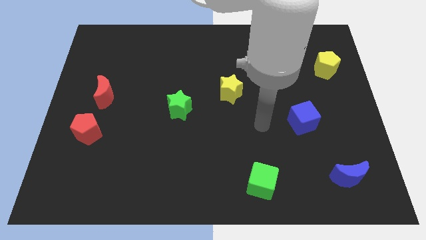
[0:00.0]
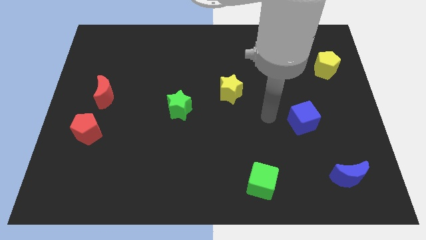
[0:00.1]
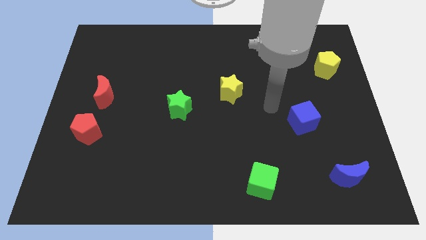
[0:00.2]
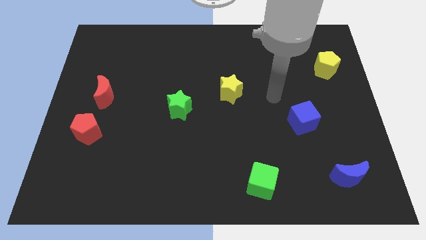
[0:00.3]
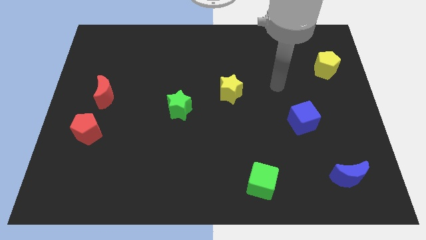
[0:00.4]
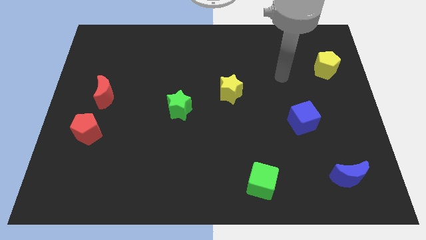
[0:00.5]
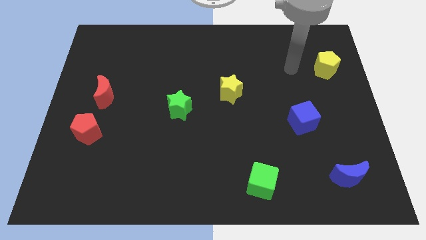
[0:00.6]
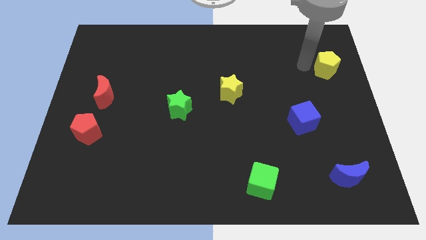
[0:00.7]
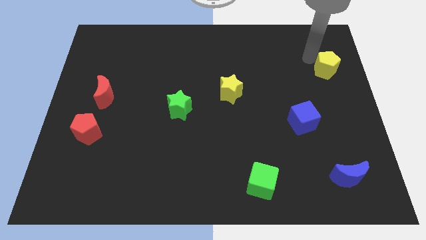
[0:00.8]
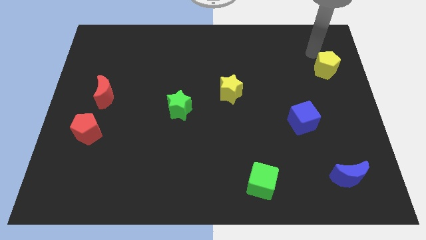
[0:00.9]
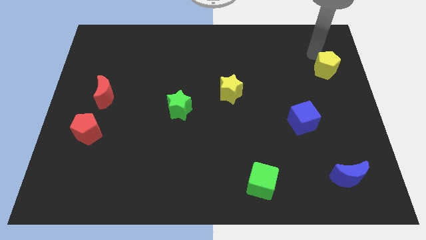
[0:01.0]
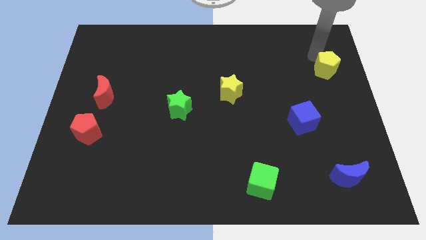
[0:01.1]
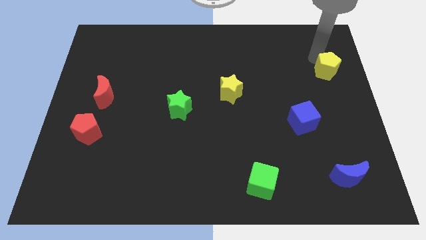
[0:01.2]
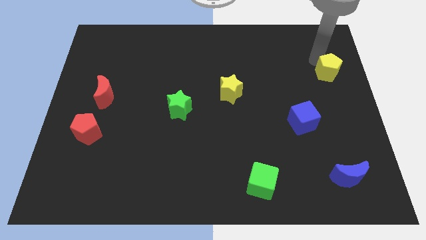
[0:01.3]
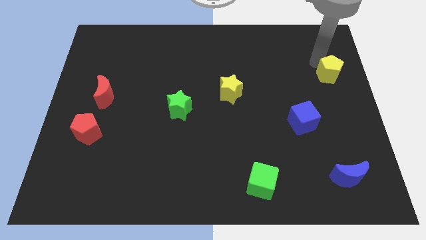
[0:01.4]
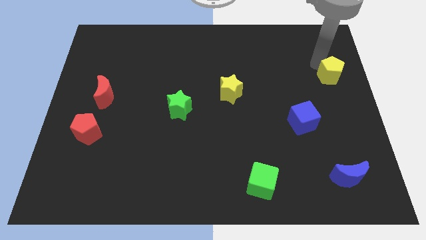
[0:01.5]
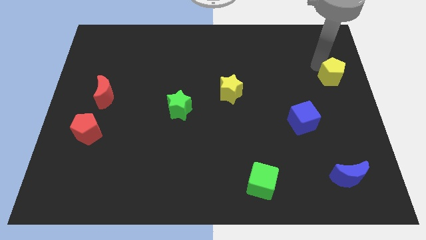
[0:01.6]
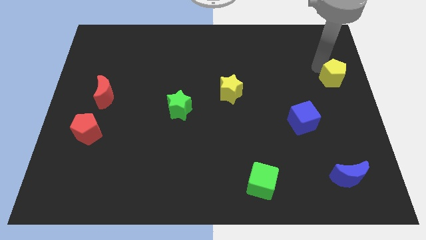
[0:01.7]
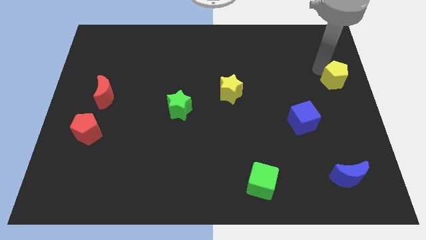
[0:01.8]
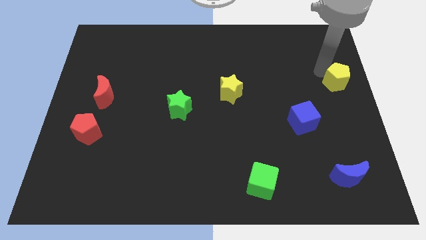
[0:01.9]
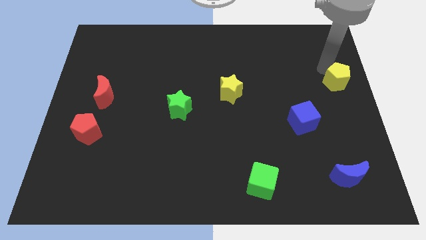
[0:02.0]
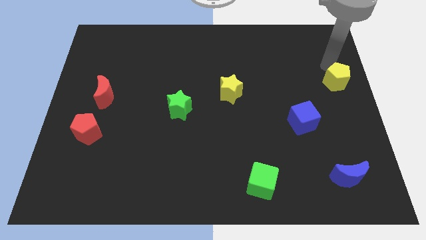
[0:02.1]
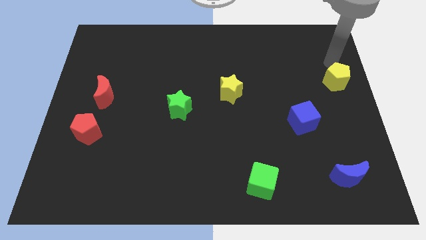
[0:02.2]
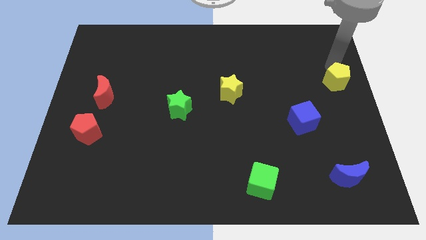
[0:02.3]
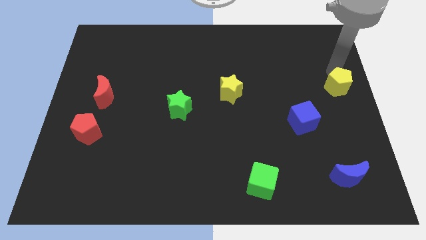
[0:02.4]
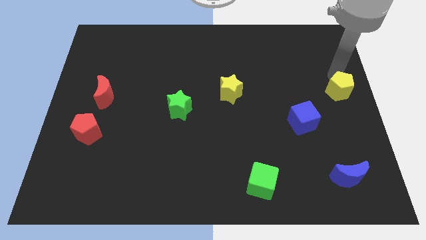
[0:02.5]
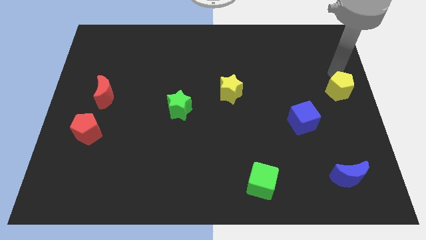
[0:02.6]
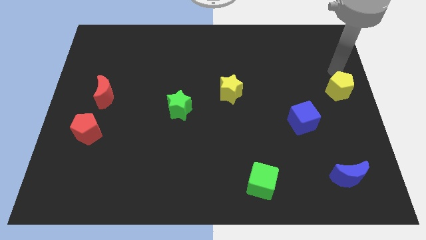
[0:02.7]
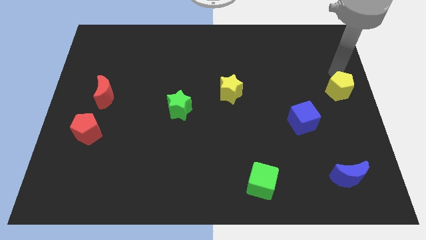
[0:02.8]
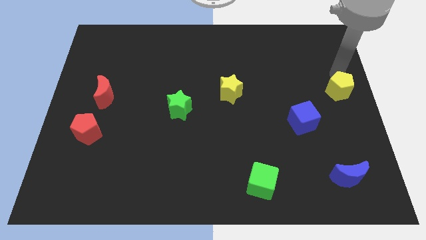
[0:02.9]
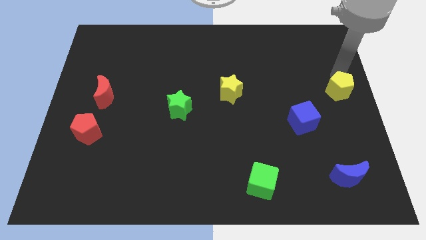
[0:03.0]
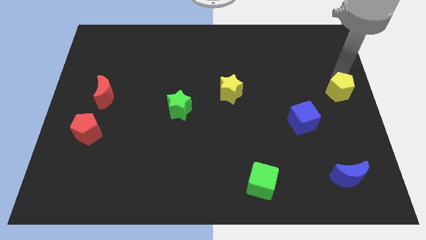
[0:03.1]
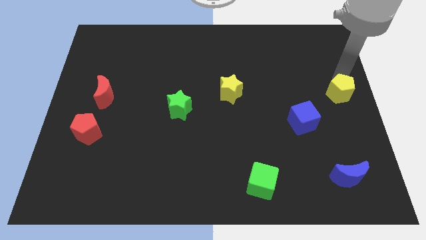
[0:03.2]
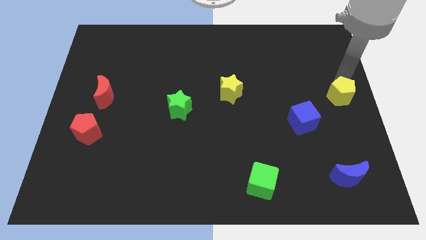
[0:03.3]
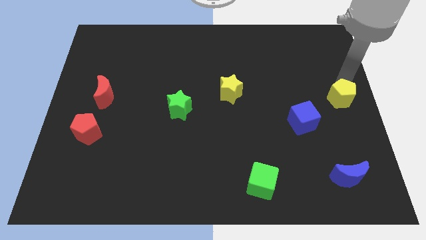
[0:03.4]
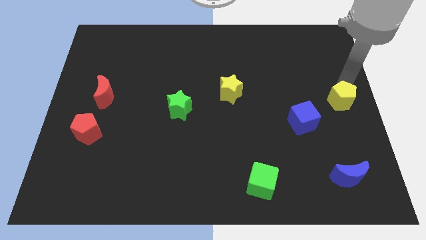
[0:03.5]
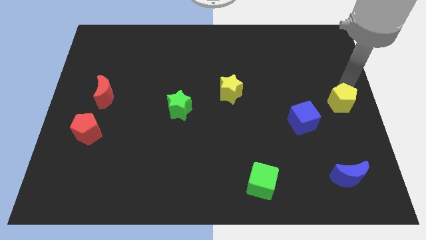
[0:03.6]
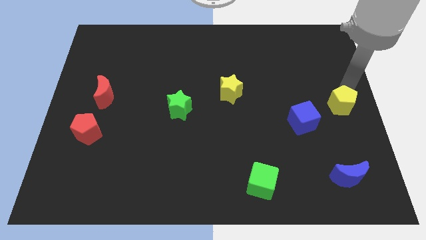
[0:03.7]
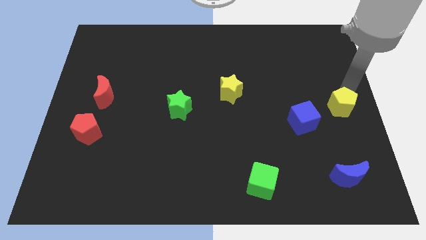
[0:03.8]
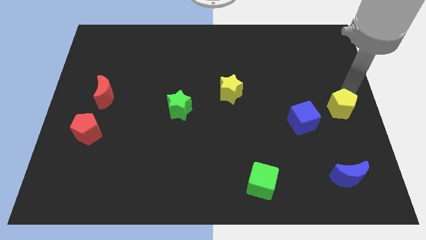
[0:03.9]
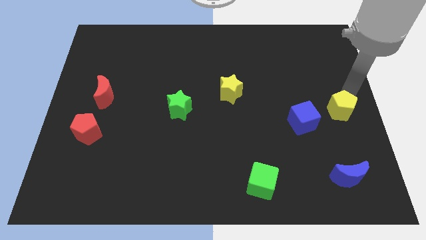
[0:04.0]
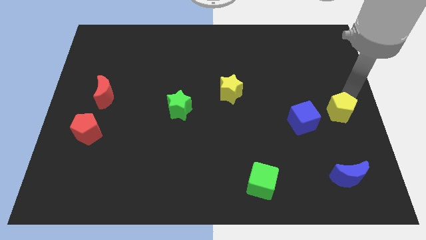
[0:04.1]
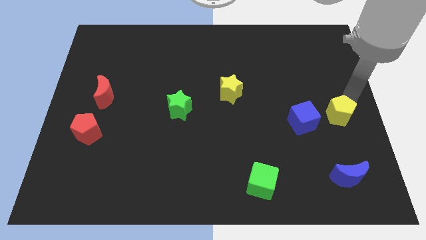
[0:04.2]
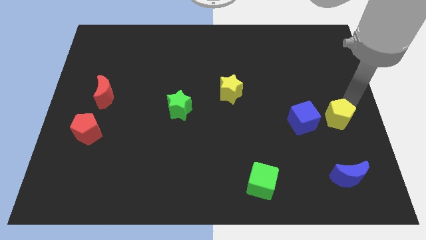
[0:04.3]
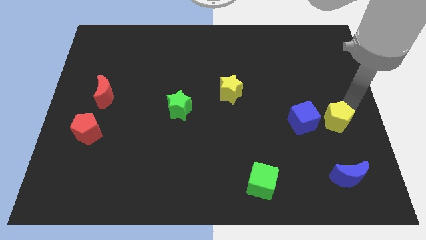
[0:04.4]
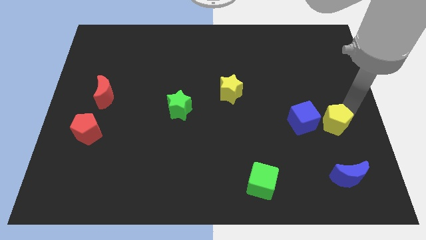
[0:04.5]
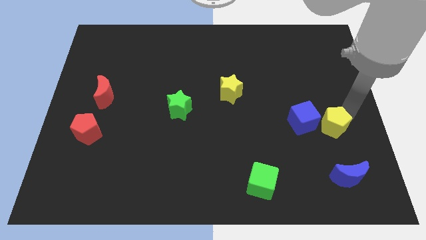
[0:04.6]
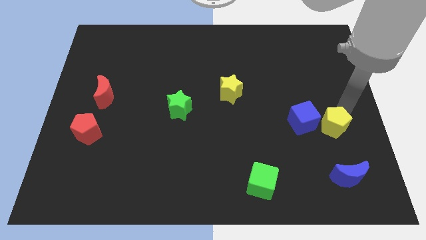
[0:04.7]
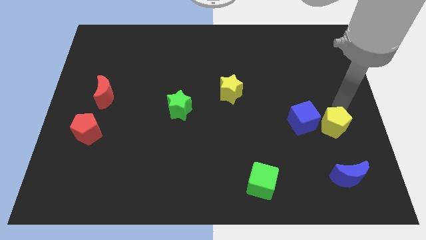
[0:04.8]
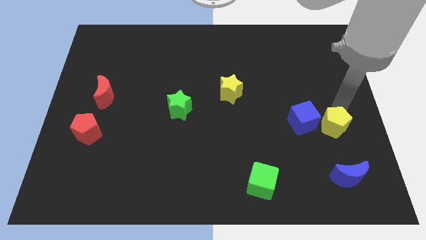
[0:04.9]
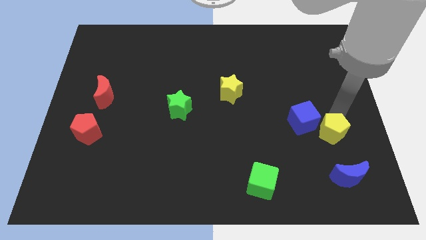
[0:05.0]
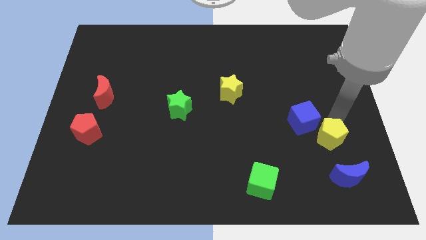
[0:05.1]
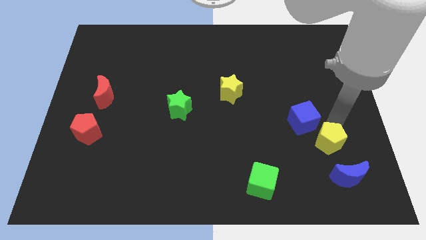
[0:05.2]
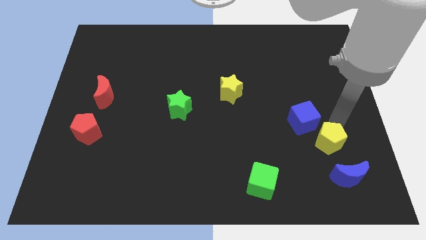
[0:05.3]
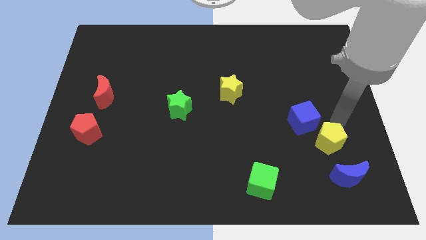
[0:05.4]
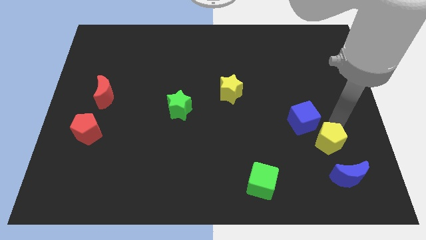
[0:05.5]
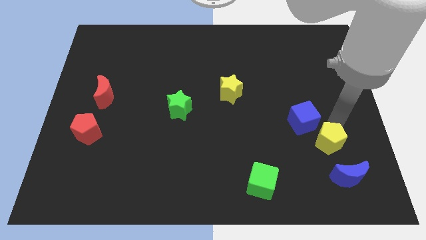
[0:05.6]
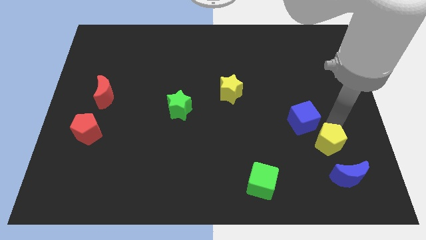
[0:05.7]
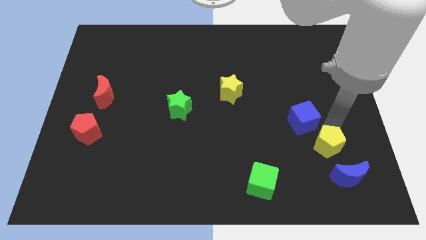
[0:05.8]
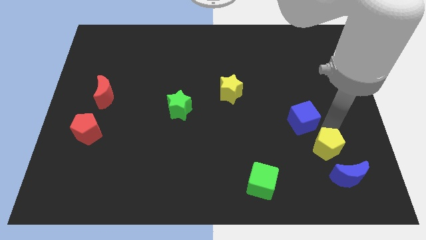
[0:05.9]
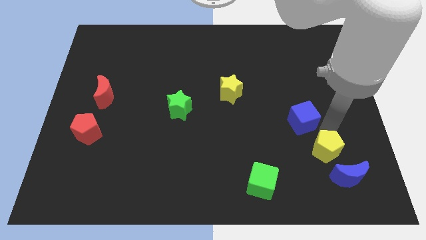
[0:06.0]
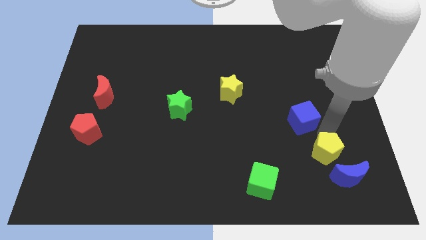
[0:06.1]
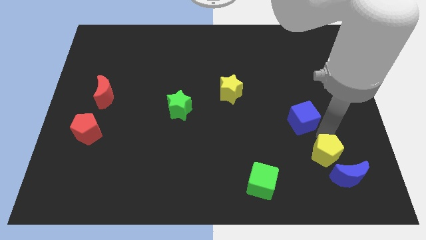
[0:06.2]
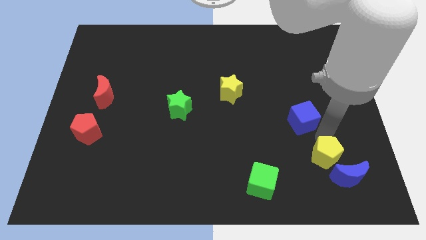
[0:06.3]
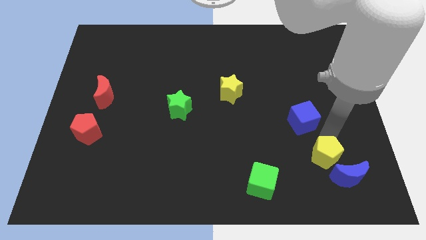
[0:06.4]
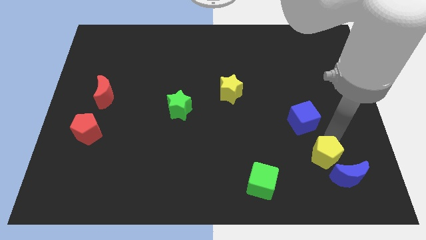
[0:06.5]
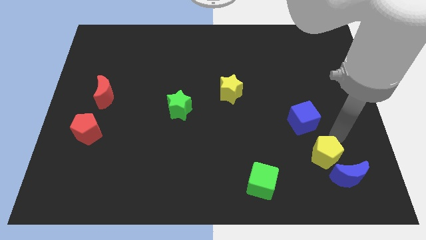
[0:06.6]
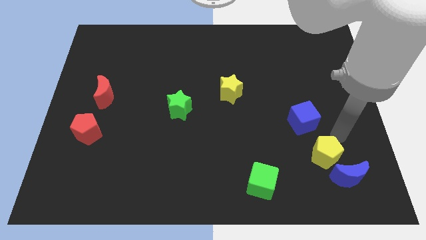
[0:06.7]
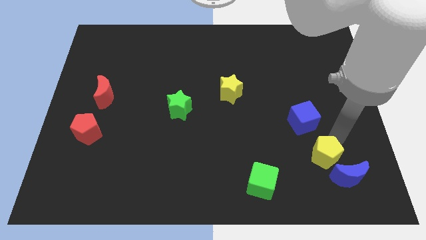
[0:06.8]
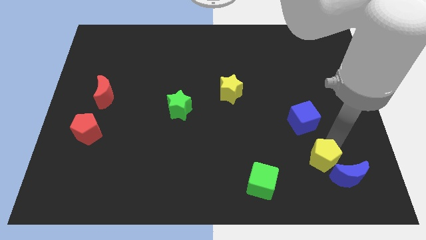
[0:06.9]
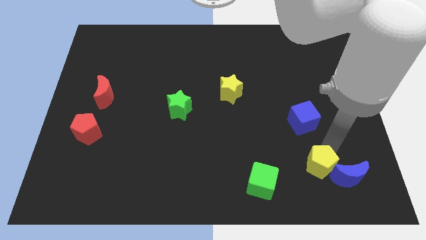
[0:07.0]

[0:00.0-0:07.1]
put the yellow pentagon right of the green cube

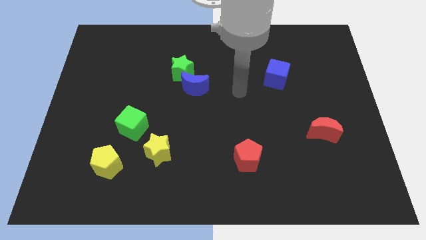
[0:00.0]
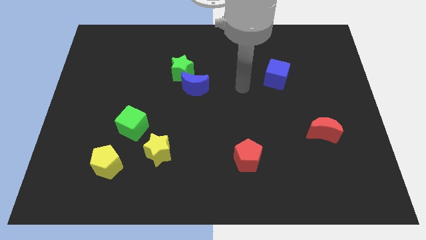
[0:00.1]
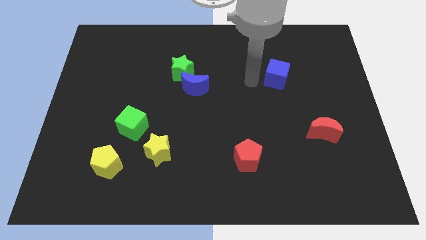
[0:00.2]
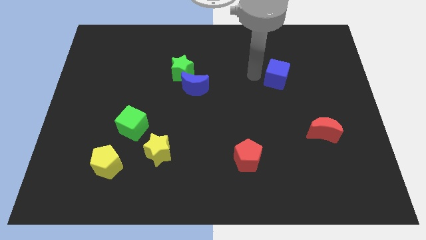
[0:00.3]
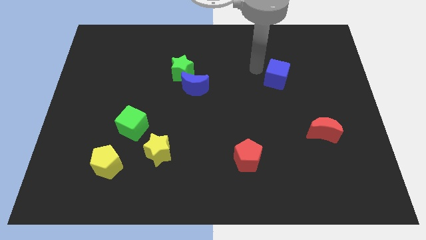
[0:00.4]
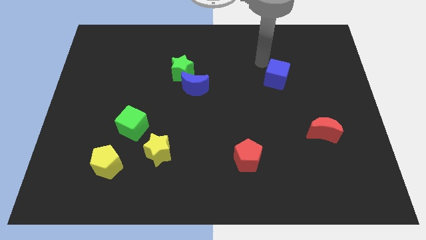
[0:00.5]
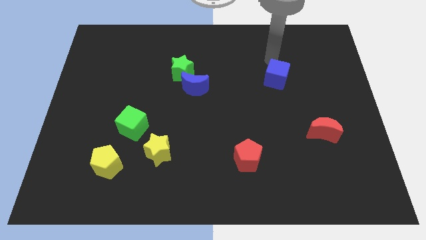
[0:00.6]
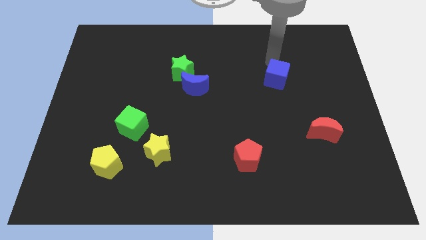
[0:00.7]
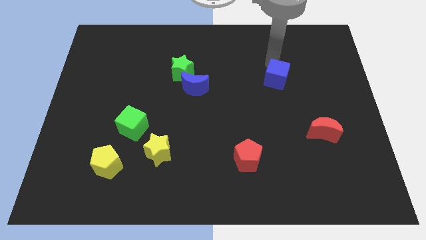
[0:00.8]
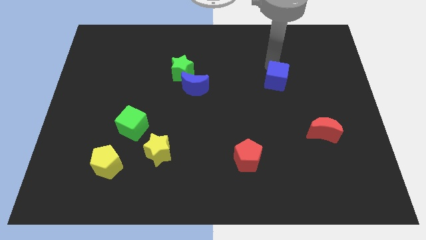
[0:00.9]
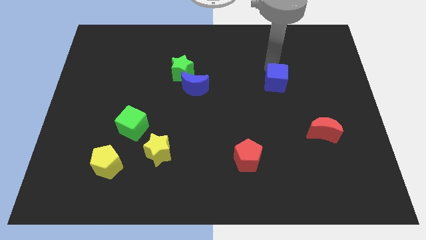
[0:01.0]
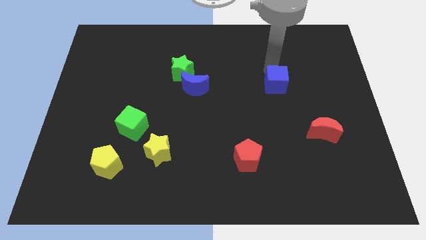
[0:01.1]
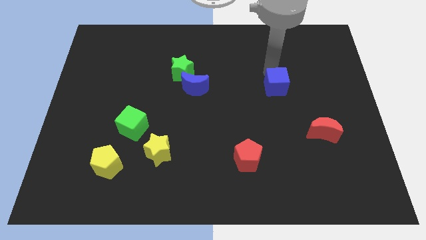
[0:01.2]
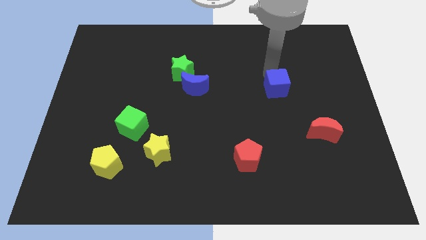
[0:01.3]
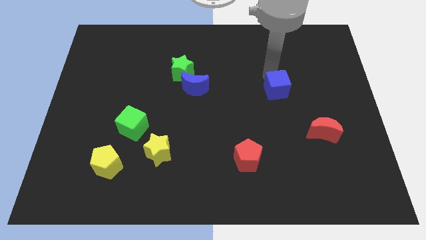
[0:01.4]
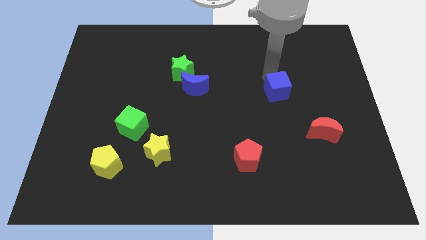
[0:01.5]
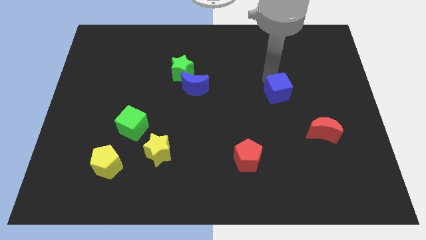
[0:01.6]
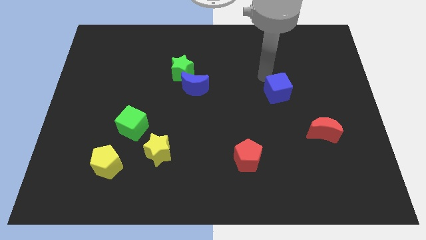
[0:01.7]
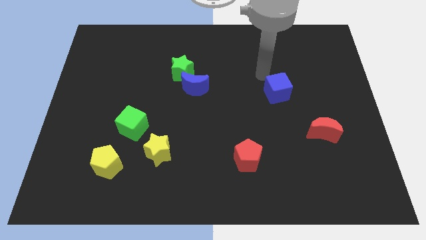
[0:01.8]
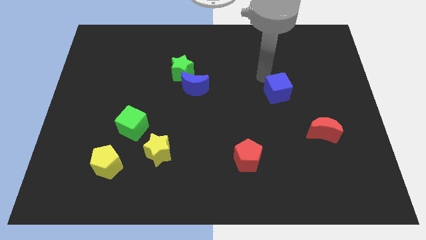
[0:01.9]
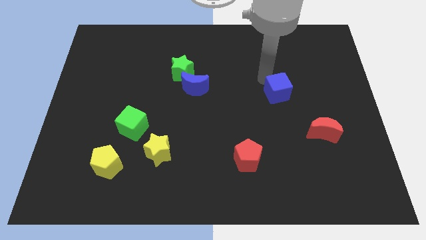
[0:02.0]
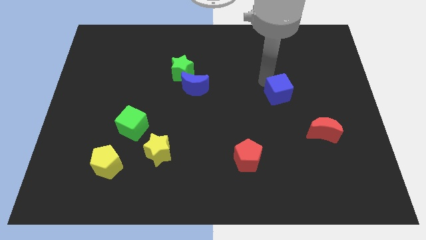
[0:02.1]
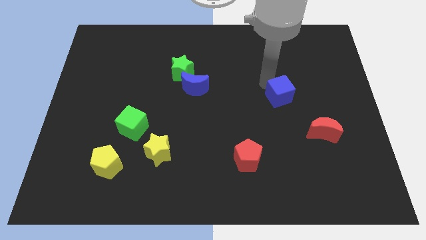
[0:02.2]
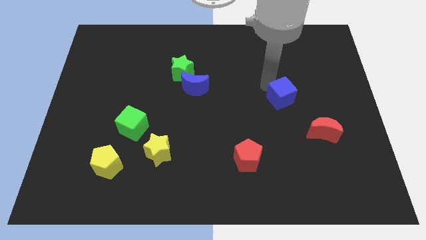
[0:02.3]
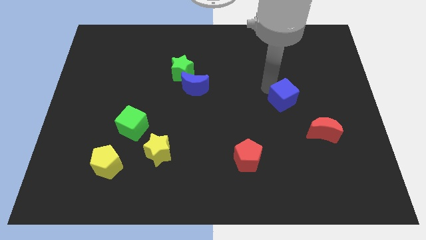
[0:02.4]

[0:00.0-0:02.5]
push the blue cube to the top left side of the red moon
